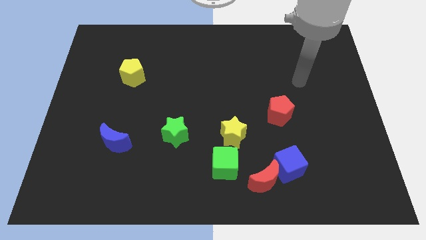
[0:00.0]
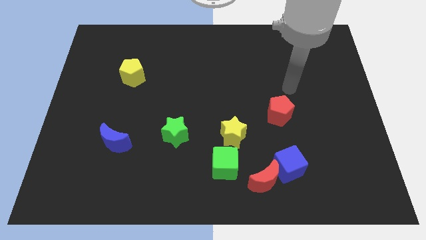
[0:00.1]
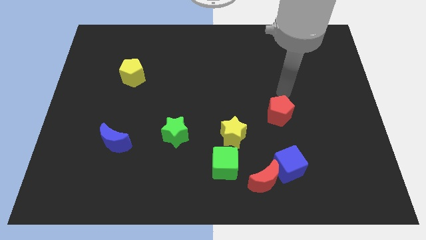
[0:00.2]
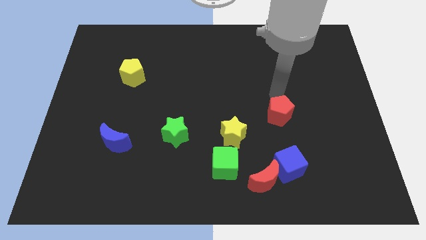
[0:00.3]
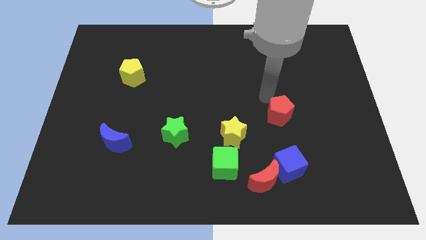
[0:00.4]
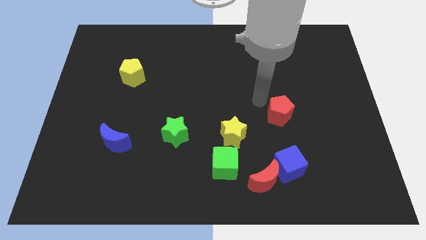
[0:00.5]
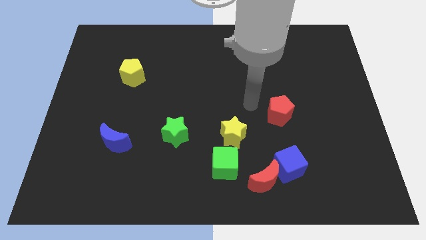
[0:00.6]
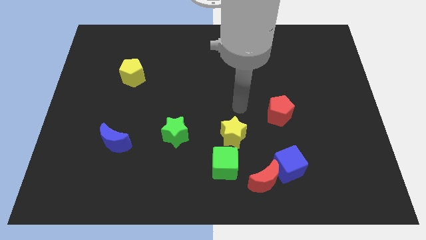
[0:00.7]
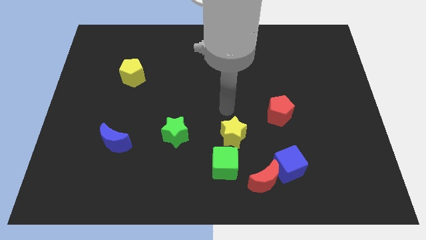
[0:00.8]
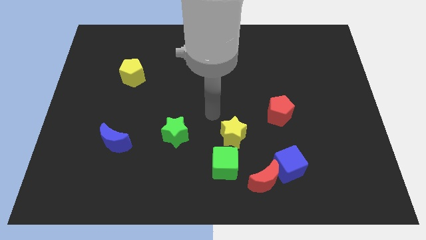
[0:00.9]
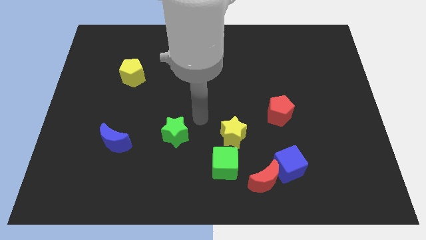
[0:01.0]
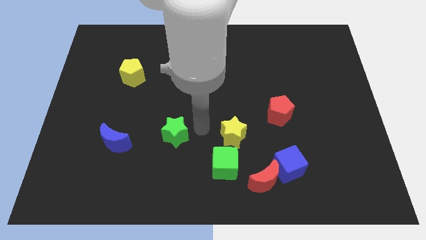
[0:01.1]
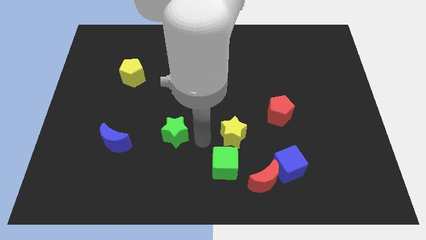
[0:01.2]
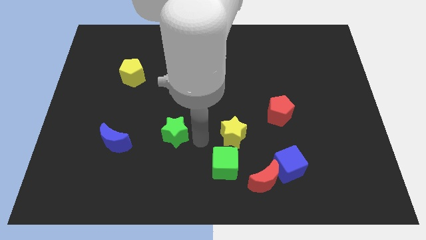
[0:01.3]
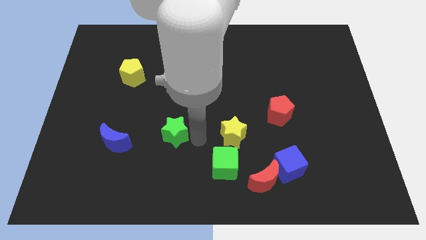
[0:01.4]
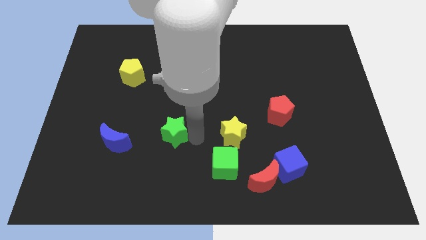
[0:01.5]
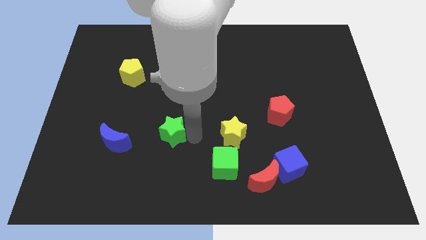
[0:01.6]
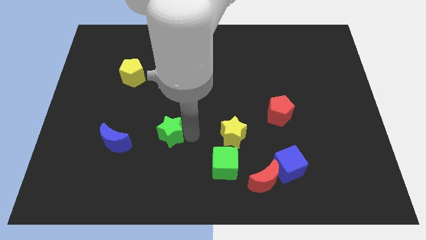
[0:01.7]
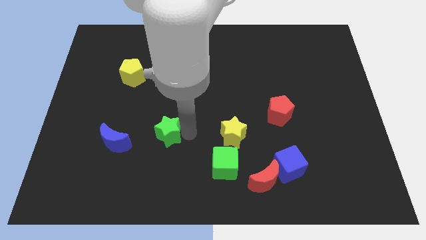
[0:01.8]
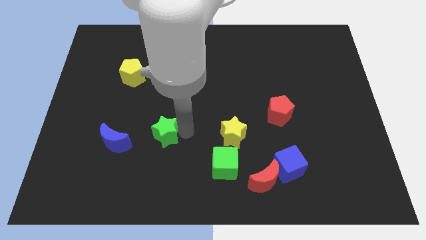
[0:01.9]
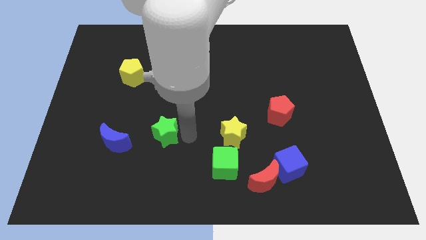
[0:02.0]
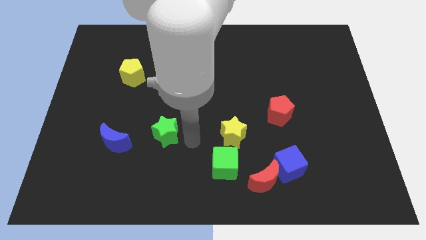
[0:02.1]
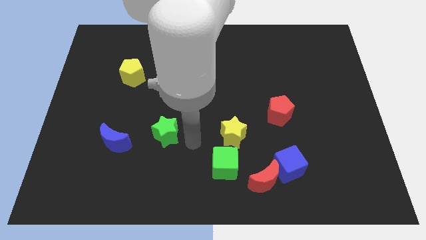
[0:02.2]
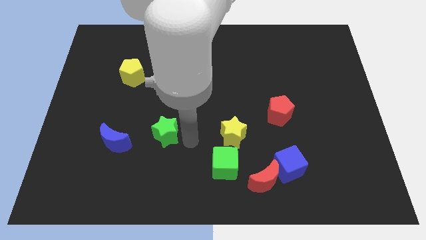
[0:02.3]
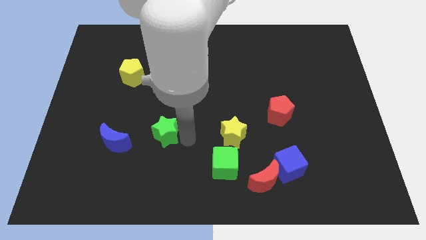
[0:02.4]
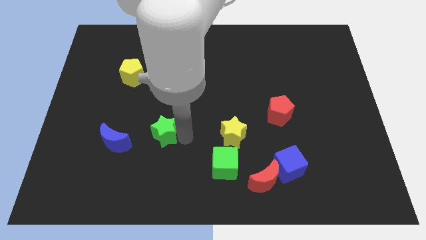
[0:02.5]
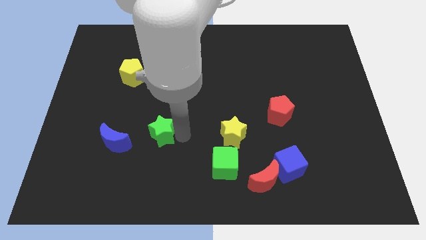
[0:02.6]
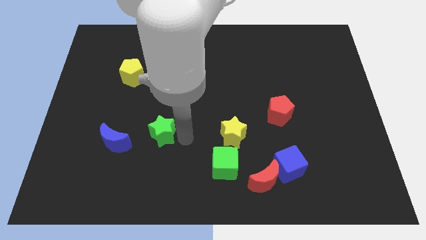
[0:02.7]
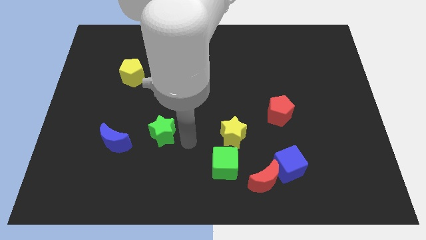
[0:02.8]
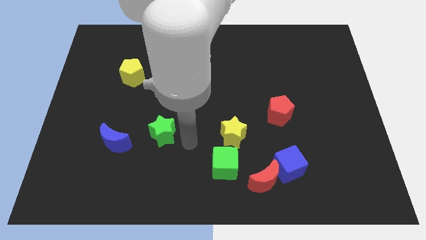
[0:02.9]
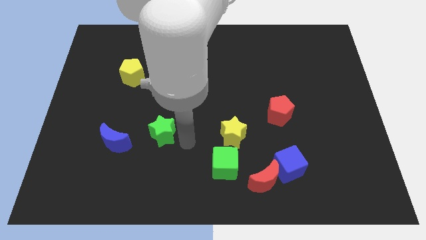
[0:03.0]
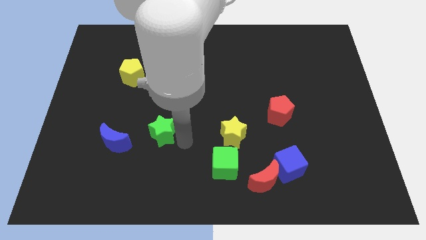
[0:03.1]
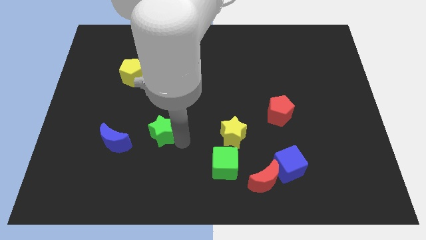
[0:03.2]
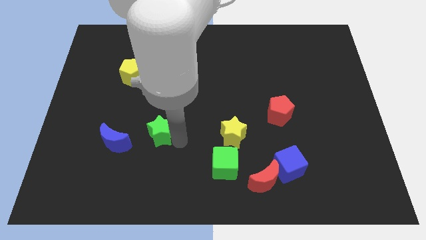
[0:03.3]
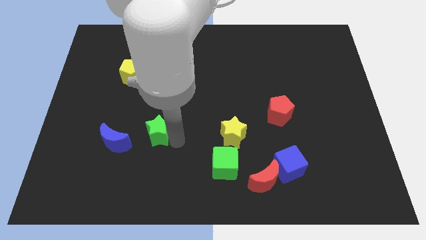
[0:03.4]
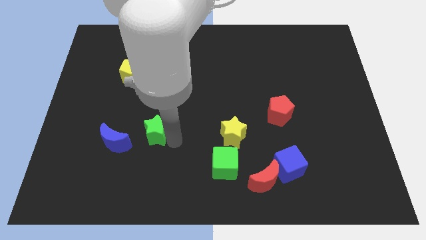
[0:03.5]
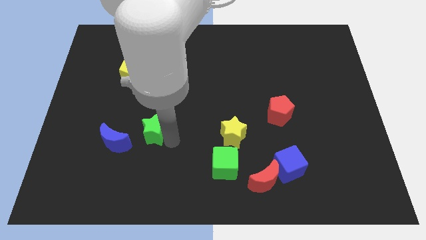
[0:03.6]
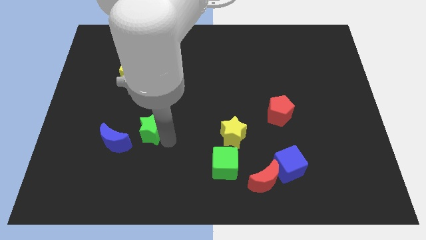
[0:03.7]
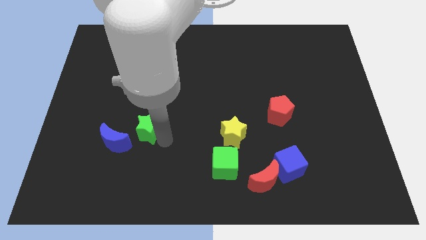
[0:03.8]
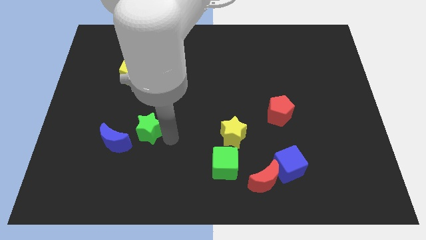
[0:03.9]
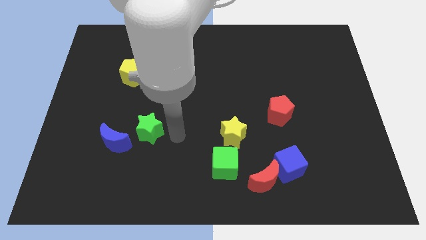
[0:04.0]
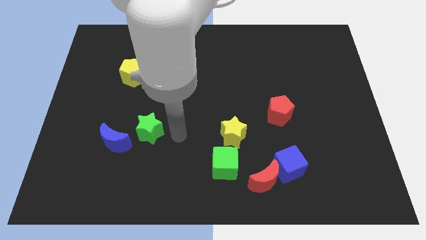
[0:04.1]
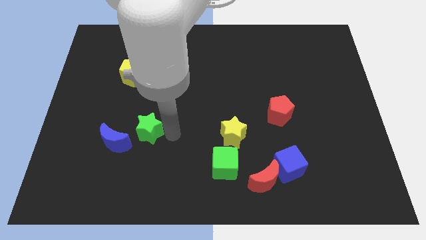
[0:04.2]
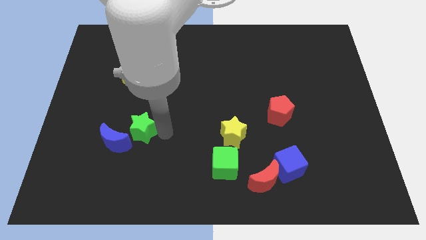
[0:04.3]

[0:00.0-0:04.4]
slightly slide the green star left

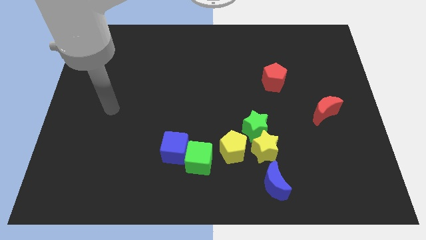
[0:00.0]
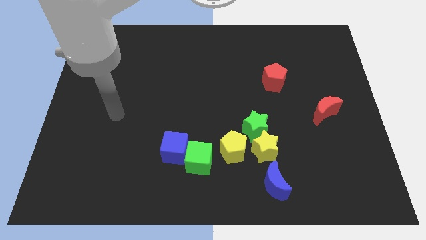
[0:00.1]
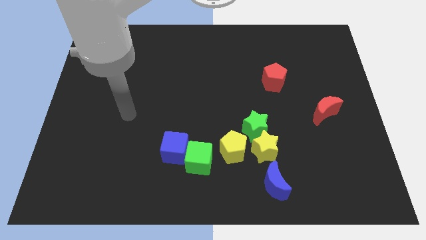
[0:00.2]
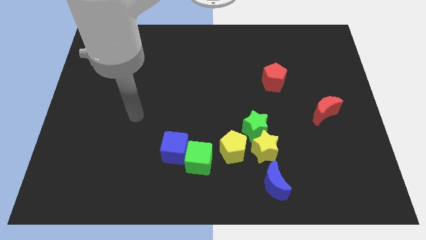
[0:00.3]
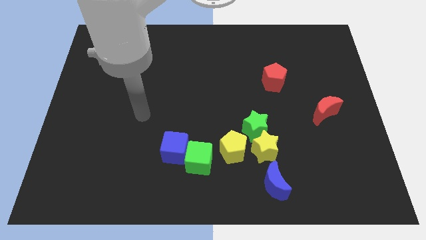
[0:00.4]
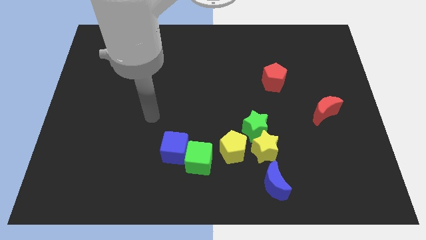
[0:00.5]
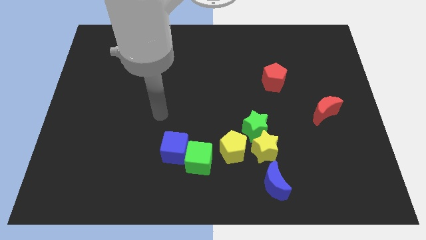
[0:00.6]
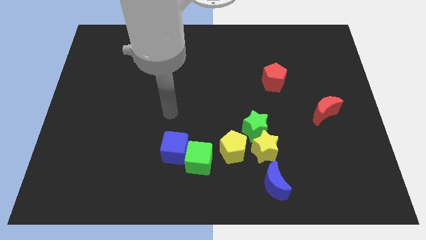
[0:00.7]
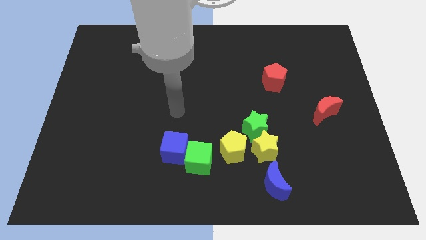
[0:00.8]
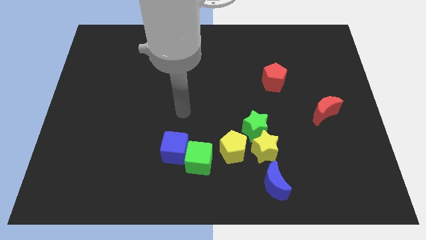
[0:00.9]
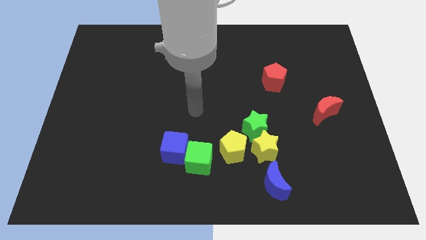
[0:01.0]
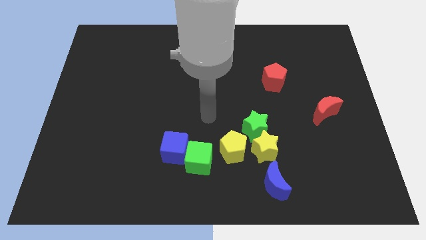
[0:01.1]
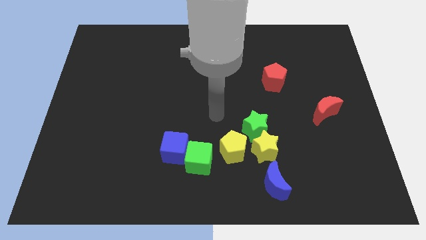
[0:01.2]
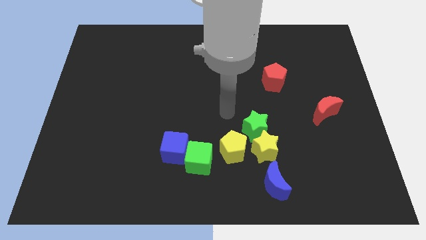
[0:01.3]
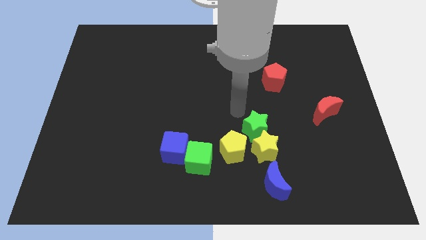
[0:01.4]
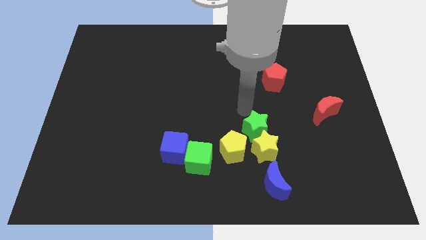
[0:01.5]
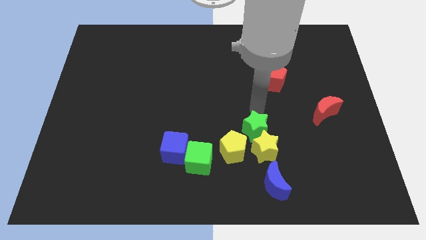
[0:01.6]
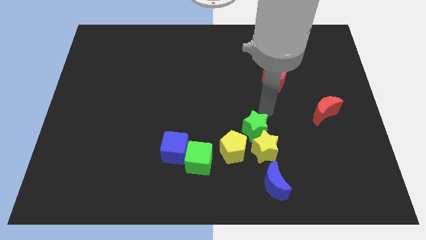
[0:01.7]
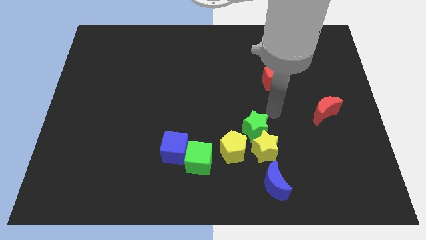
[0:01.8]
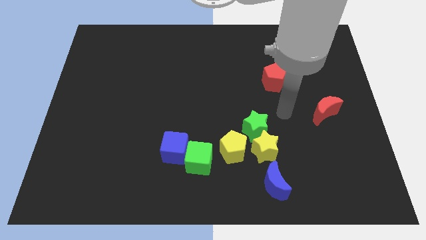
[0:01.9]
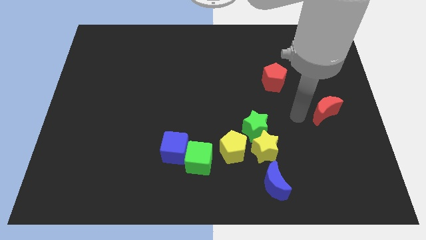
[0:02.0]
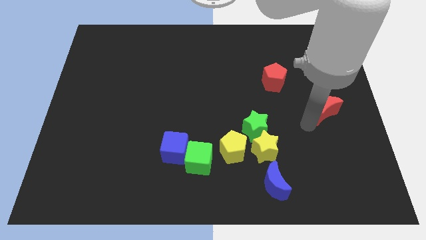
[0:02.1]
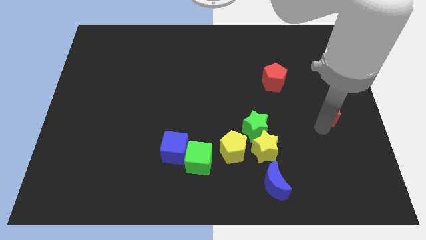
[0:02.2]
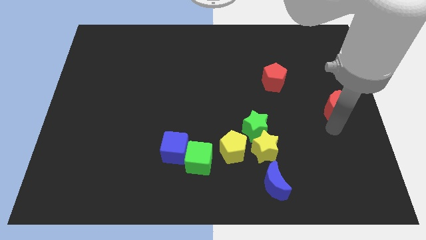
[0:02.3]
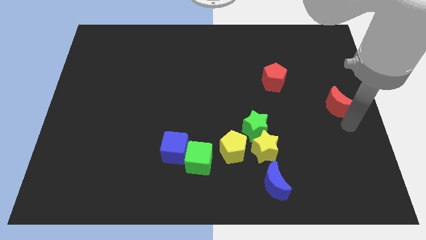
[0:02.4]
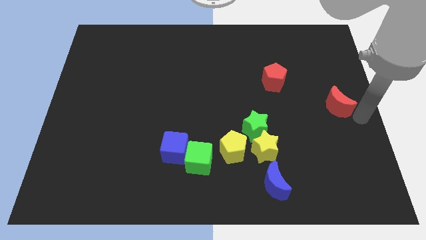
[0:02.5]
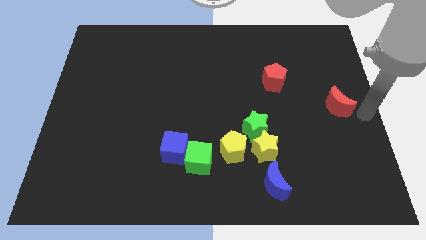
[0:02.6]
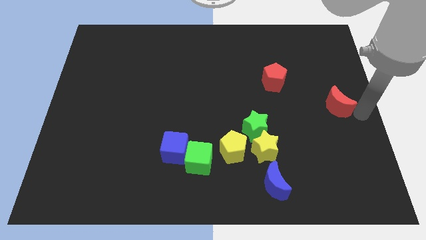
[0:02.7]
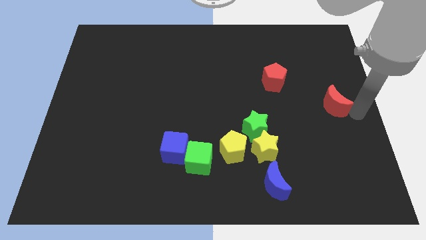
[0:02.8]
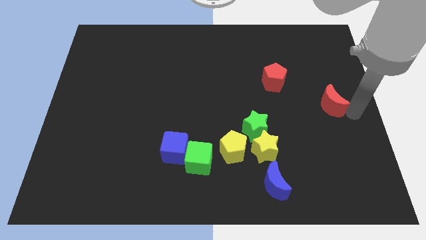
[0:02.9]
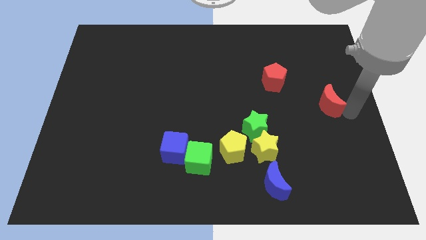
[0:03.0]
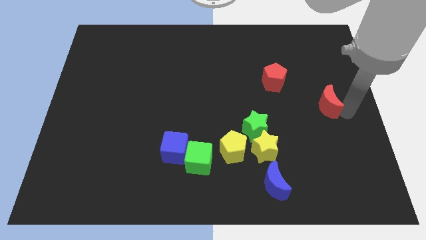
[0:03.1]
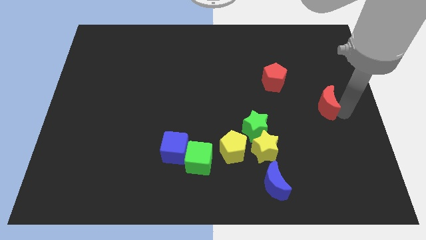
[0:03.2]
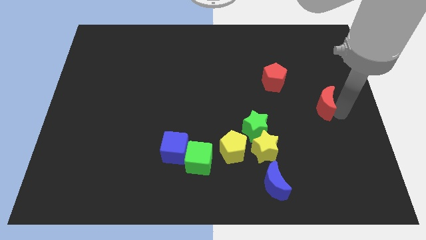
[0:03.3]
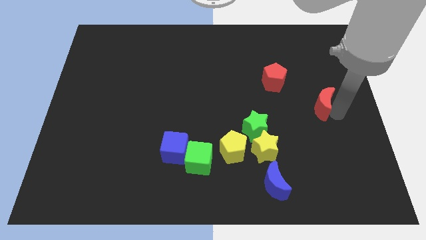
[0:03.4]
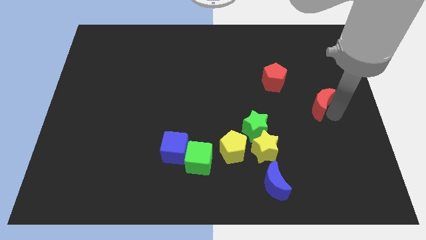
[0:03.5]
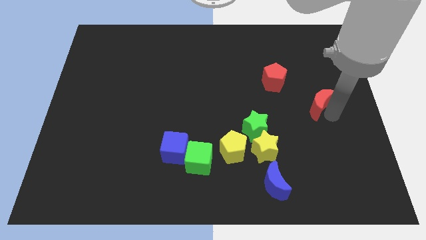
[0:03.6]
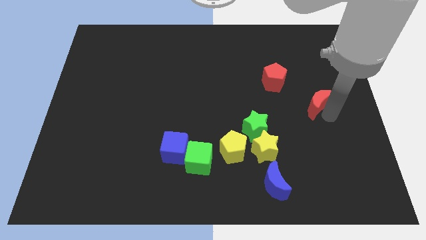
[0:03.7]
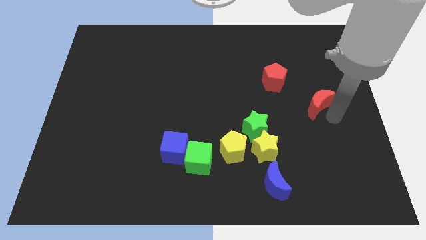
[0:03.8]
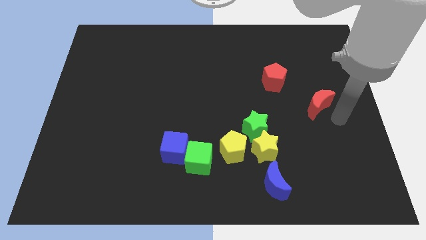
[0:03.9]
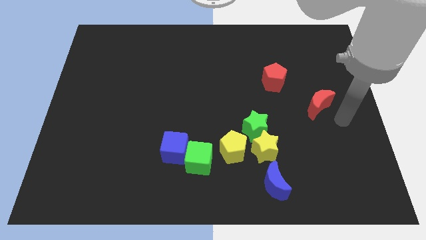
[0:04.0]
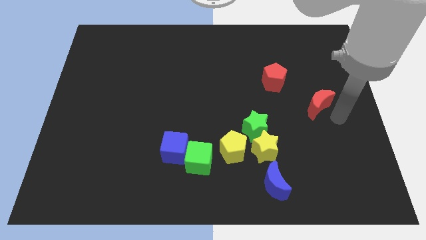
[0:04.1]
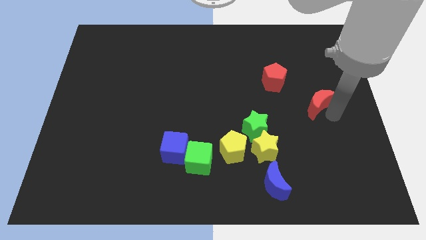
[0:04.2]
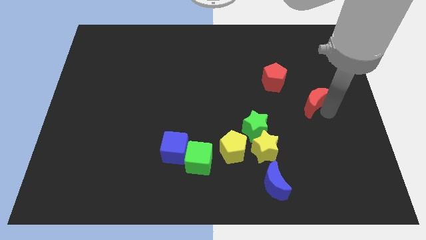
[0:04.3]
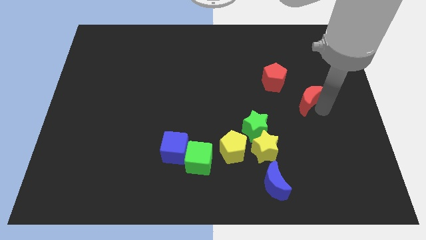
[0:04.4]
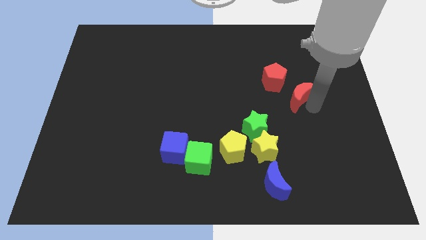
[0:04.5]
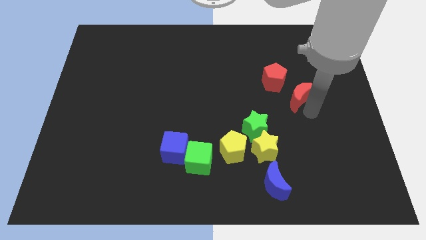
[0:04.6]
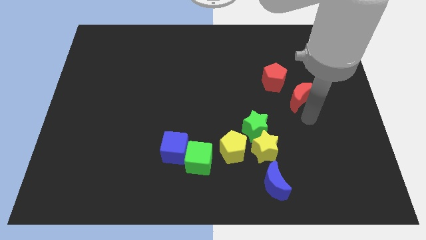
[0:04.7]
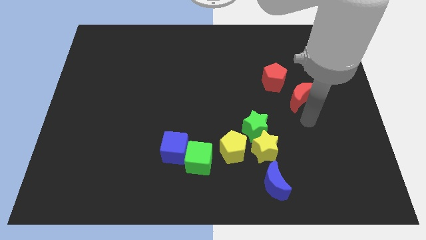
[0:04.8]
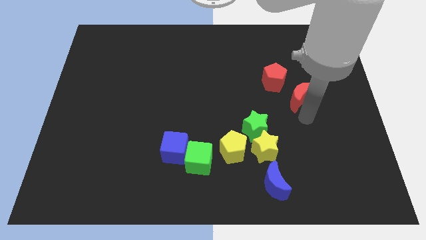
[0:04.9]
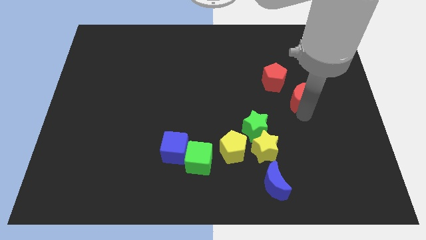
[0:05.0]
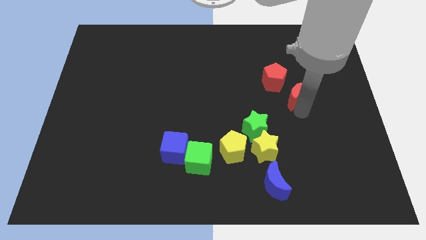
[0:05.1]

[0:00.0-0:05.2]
move the red moon up and to the left diagonally slightly
